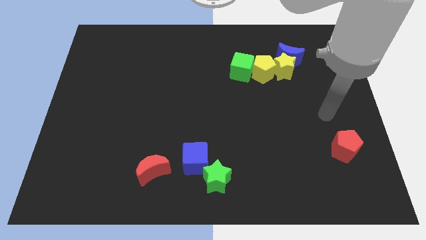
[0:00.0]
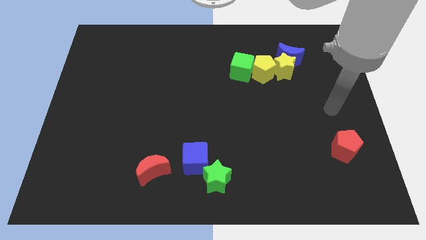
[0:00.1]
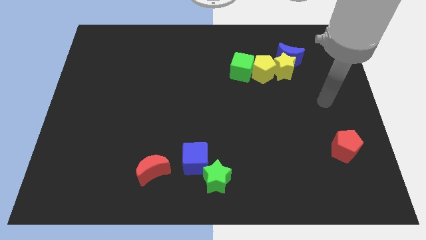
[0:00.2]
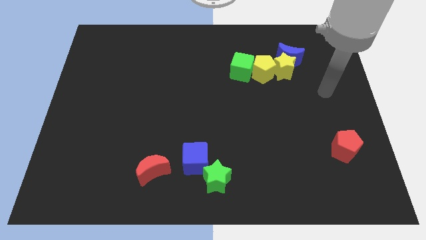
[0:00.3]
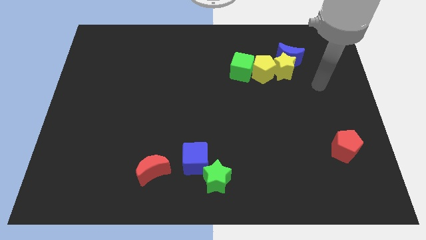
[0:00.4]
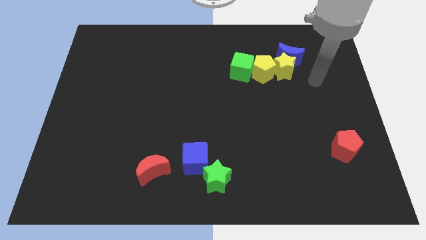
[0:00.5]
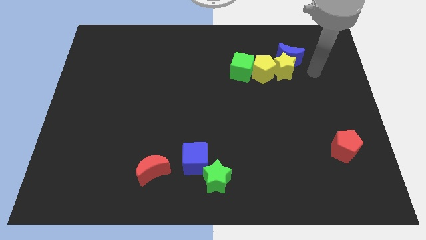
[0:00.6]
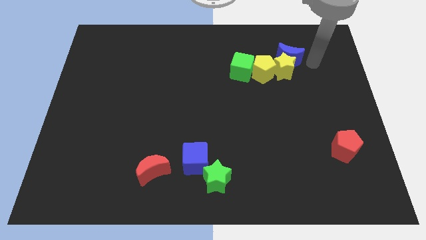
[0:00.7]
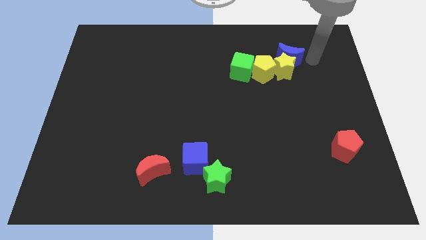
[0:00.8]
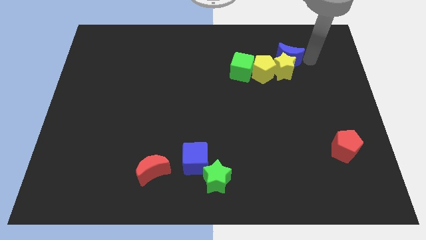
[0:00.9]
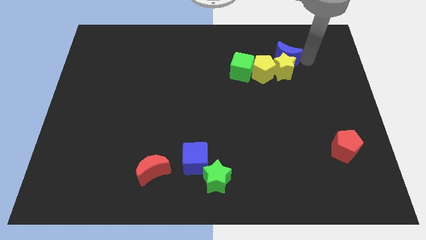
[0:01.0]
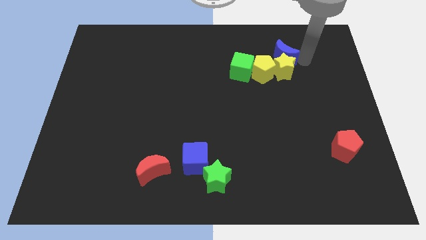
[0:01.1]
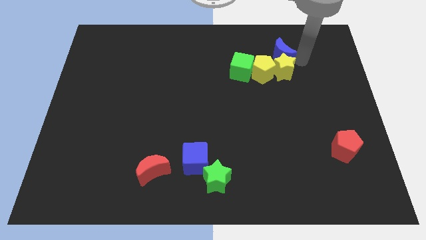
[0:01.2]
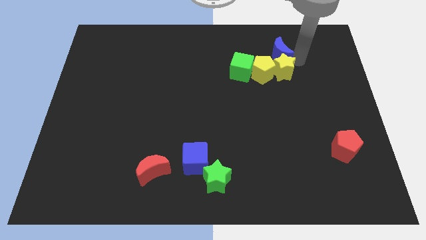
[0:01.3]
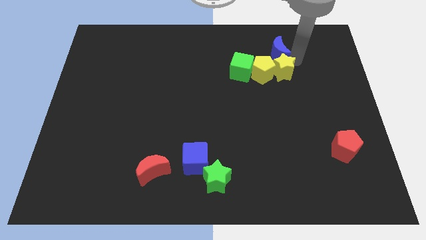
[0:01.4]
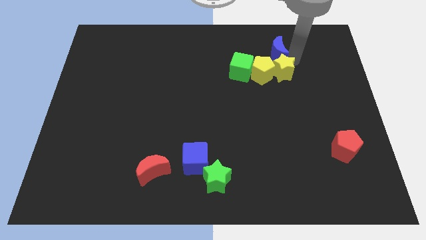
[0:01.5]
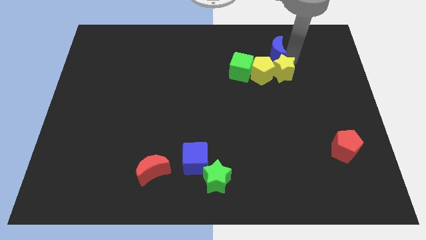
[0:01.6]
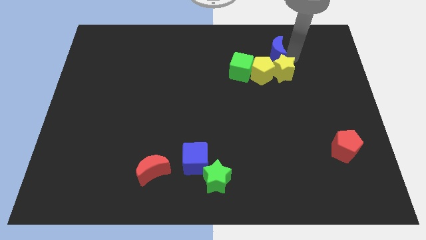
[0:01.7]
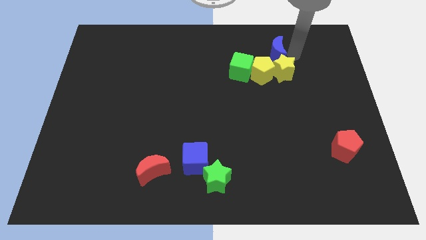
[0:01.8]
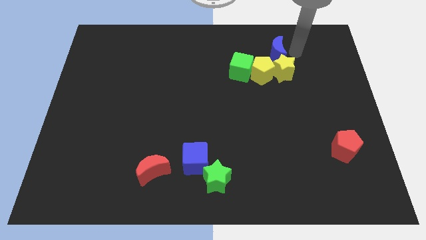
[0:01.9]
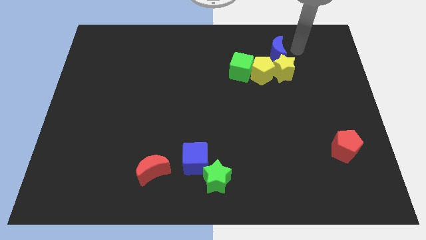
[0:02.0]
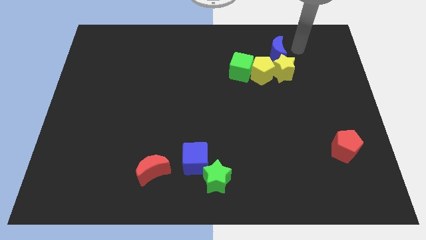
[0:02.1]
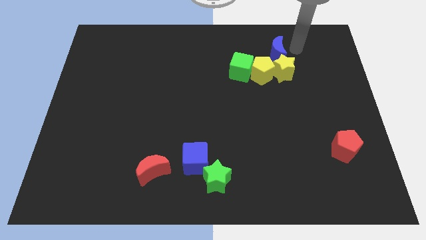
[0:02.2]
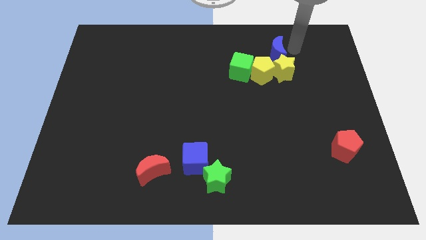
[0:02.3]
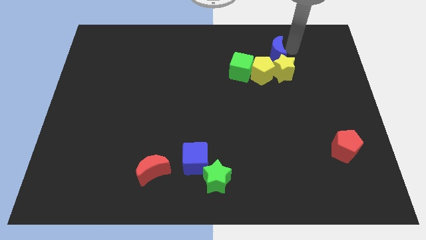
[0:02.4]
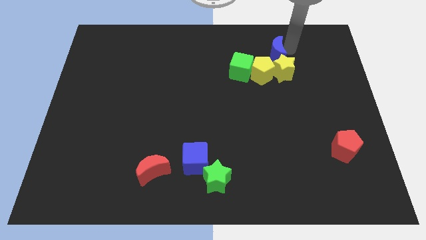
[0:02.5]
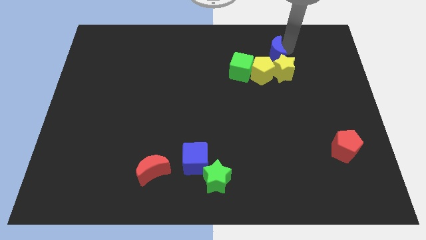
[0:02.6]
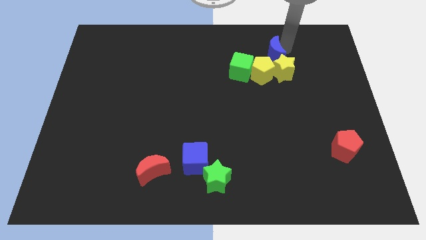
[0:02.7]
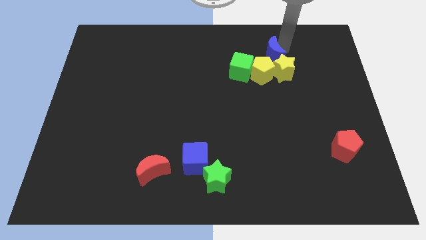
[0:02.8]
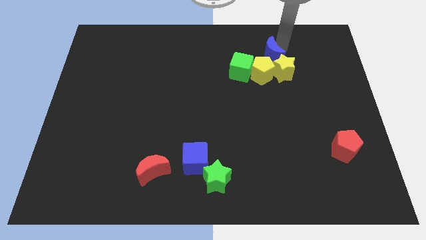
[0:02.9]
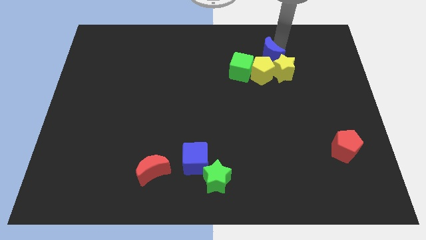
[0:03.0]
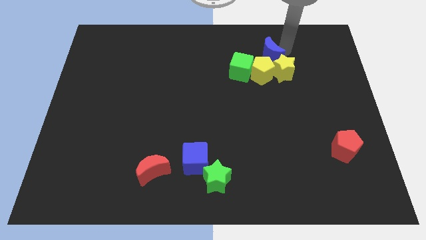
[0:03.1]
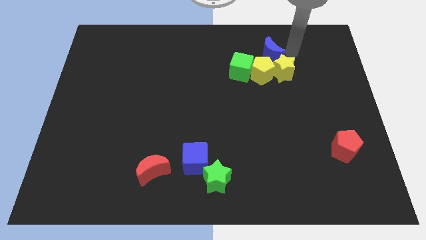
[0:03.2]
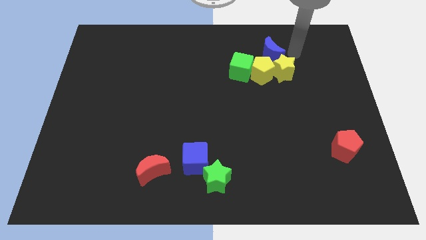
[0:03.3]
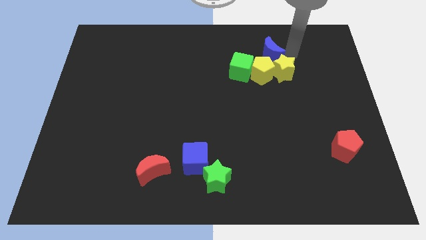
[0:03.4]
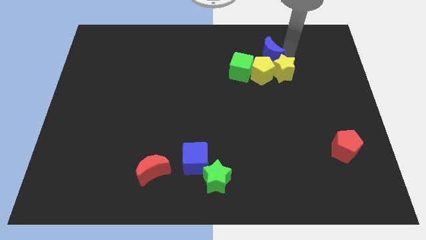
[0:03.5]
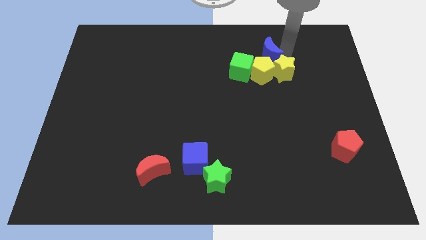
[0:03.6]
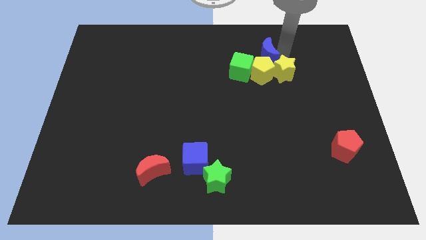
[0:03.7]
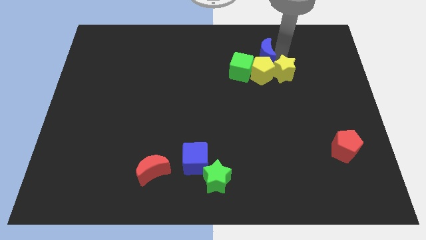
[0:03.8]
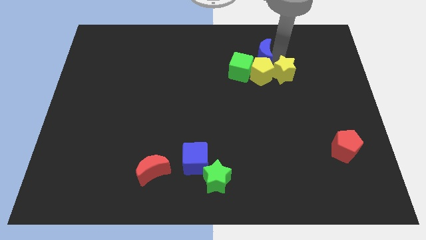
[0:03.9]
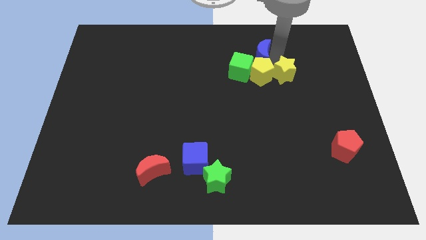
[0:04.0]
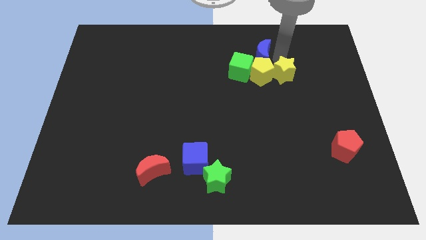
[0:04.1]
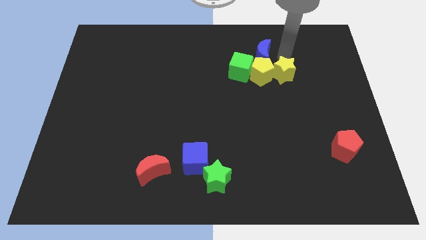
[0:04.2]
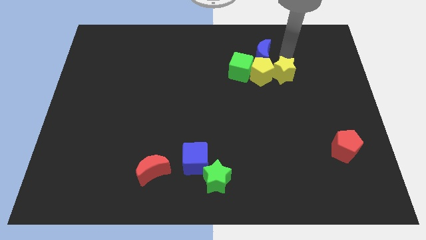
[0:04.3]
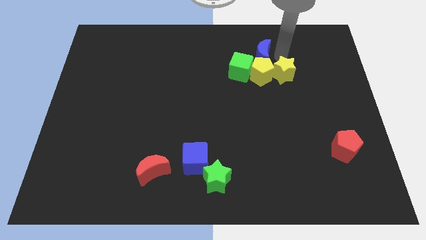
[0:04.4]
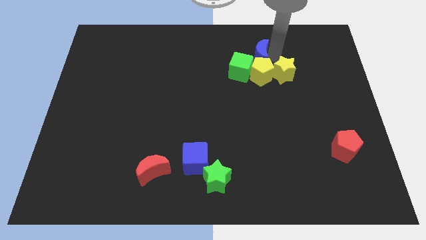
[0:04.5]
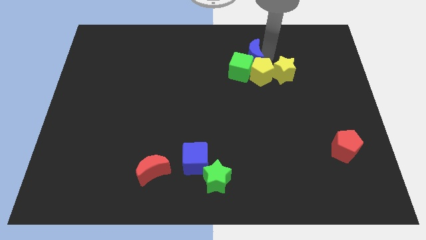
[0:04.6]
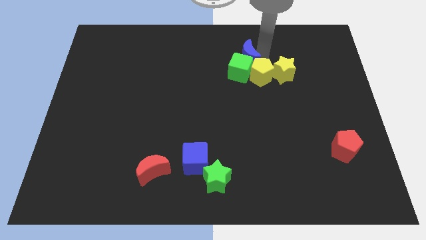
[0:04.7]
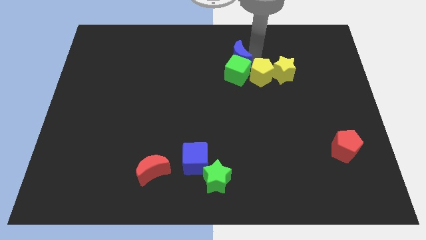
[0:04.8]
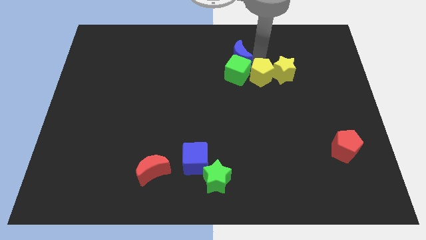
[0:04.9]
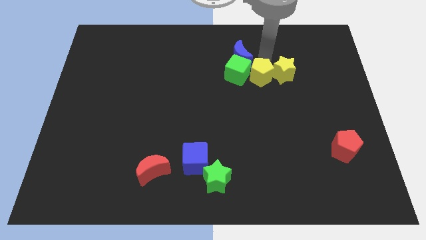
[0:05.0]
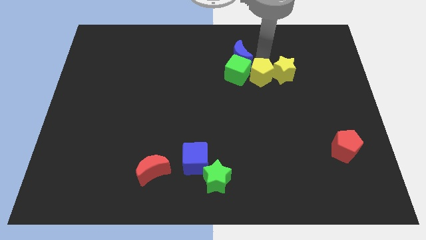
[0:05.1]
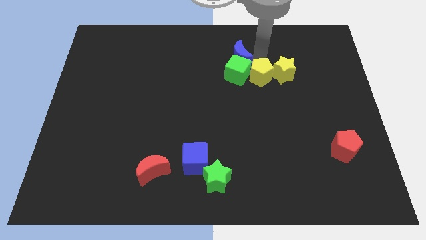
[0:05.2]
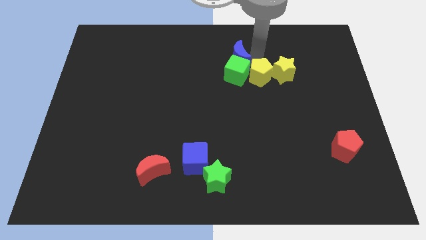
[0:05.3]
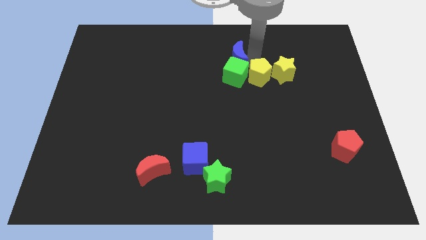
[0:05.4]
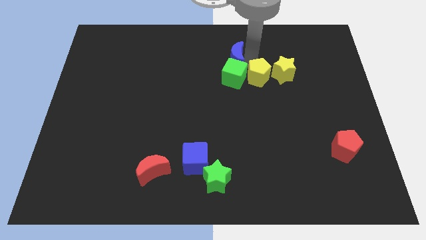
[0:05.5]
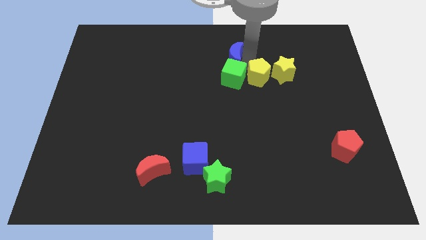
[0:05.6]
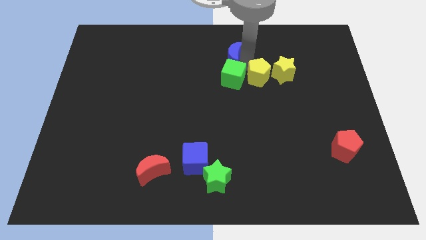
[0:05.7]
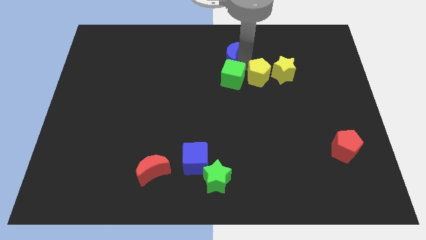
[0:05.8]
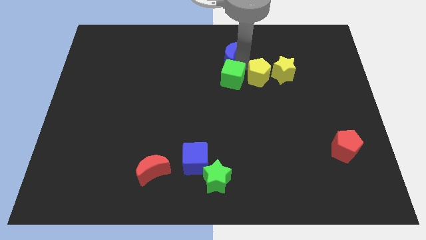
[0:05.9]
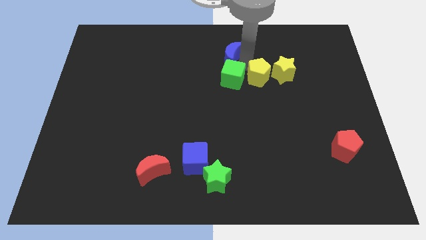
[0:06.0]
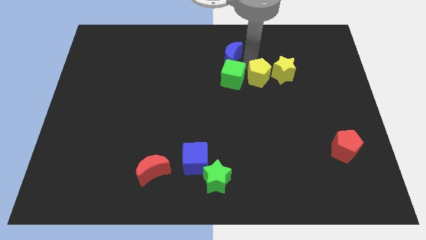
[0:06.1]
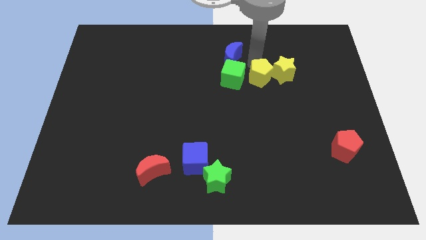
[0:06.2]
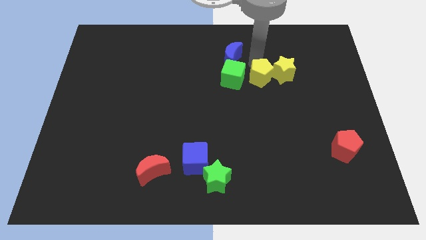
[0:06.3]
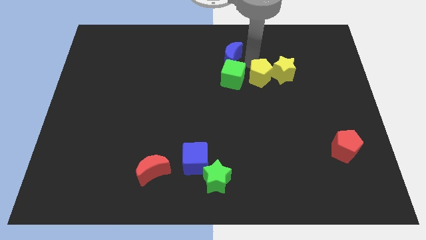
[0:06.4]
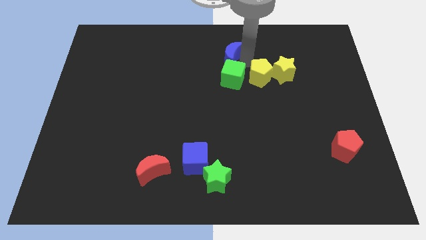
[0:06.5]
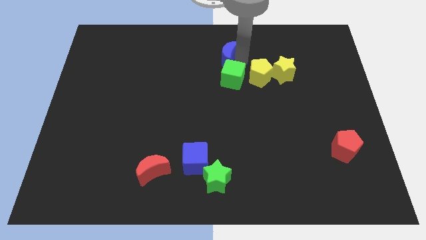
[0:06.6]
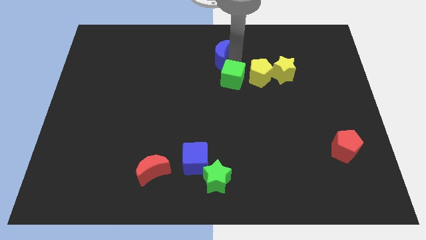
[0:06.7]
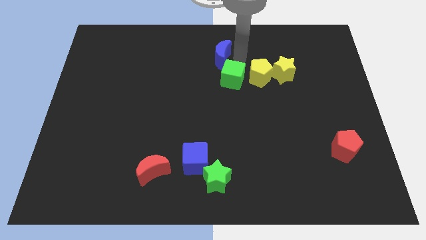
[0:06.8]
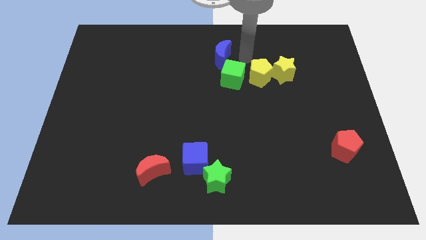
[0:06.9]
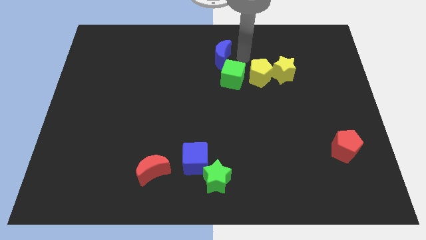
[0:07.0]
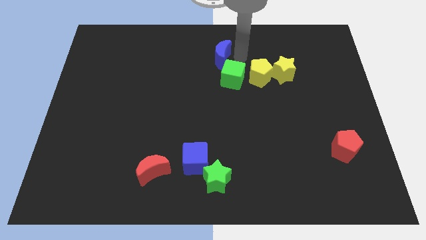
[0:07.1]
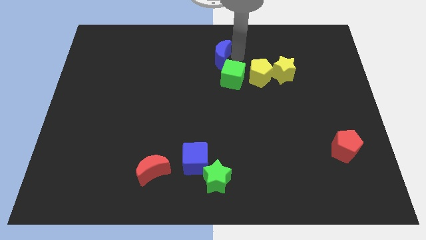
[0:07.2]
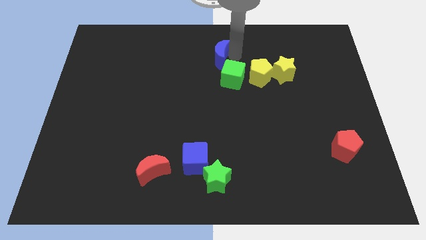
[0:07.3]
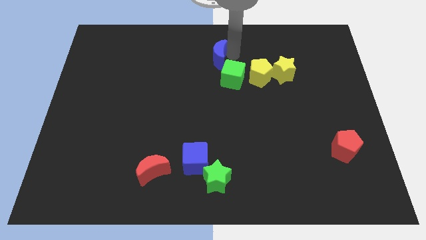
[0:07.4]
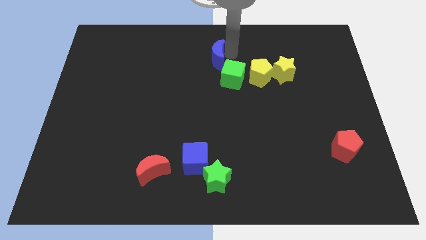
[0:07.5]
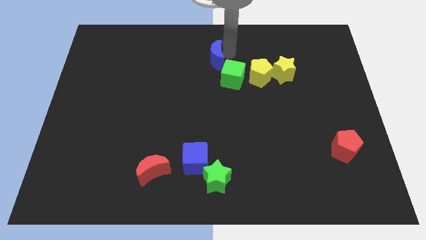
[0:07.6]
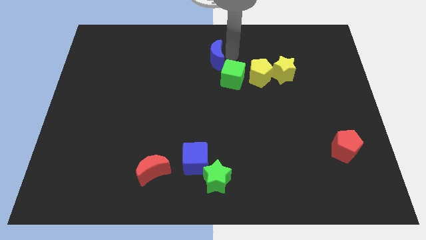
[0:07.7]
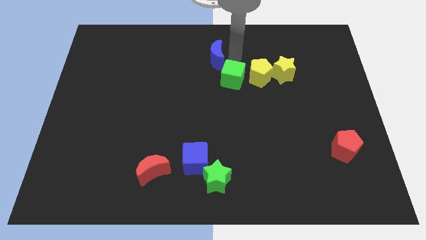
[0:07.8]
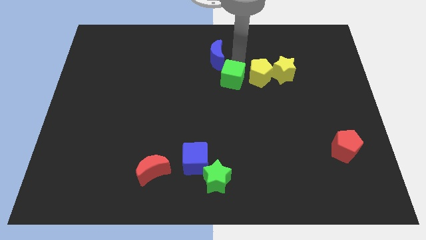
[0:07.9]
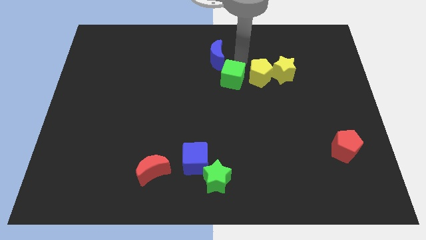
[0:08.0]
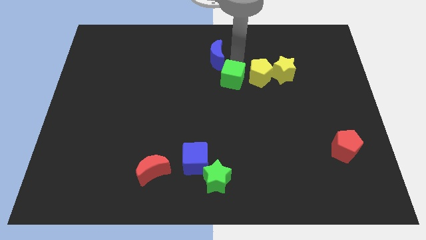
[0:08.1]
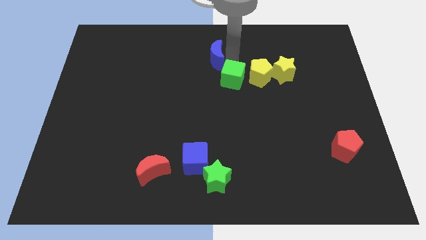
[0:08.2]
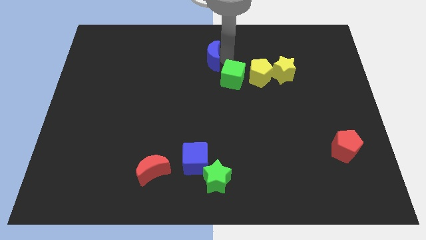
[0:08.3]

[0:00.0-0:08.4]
slide the blue moon to the left
